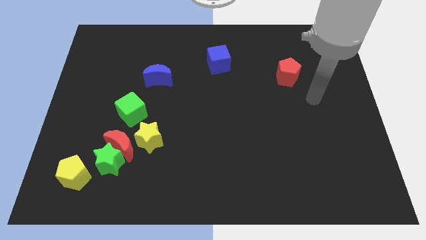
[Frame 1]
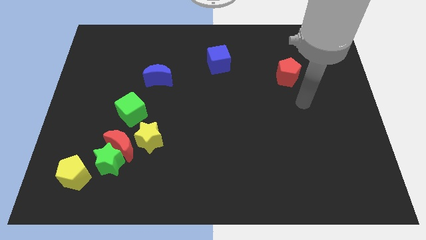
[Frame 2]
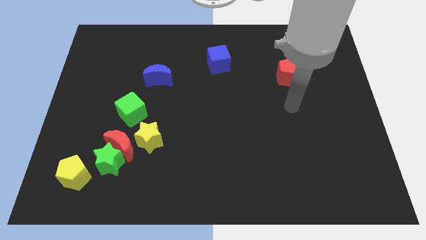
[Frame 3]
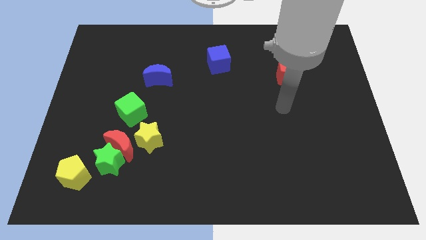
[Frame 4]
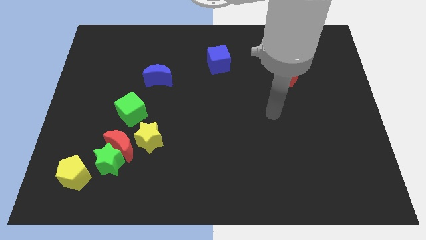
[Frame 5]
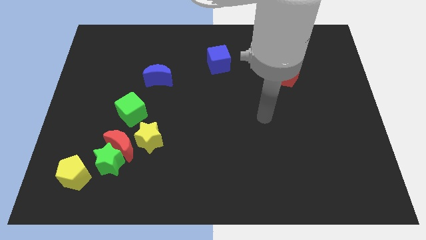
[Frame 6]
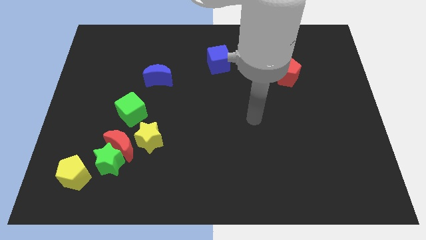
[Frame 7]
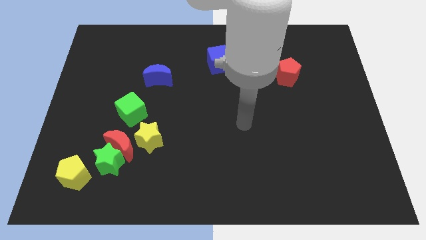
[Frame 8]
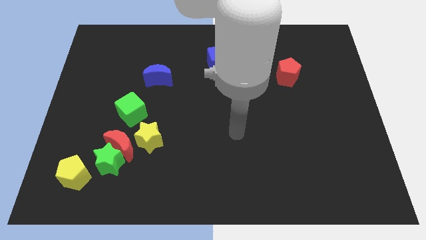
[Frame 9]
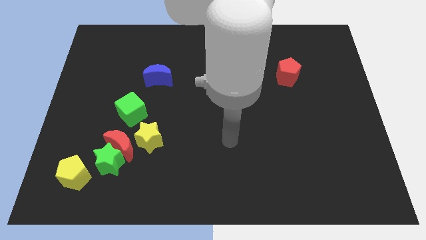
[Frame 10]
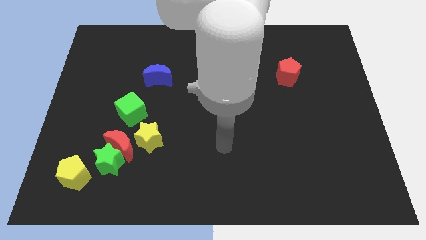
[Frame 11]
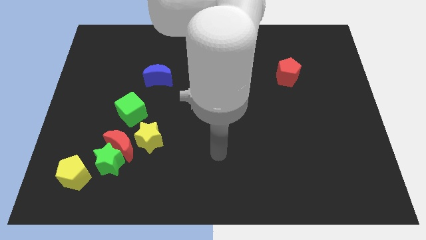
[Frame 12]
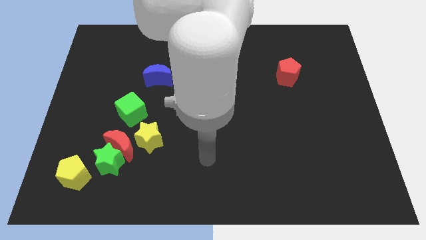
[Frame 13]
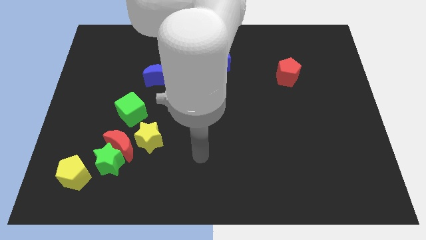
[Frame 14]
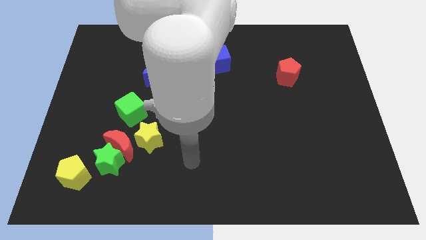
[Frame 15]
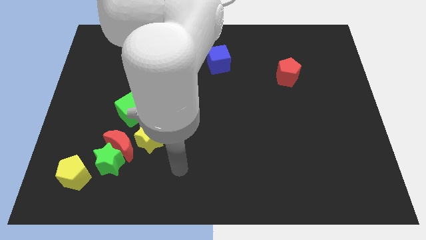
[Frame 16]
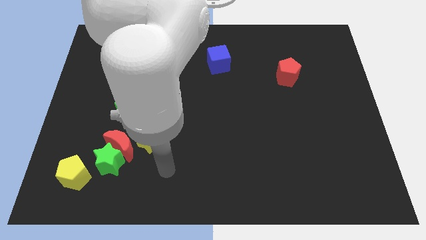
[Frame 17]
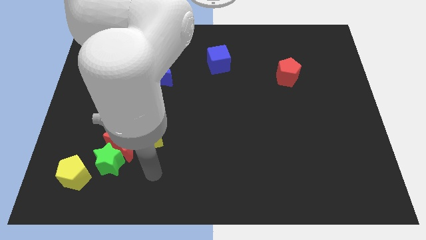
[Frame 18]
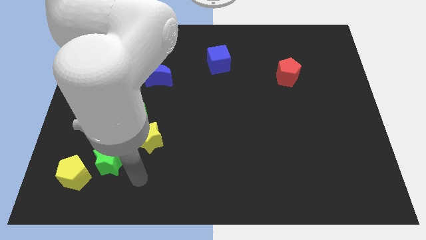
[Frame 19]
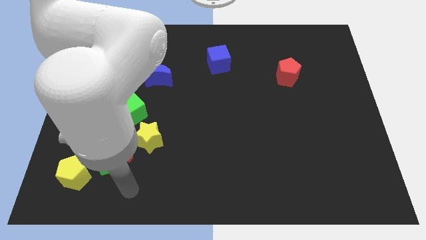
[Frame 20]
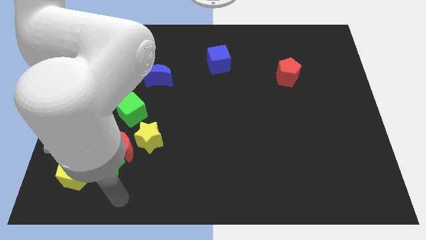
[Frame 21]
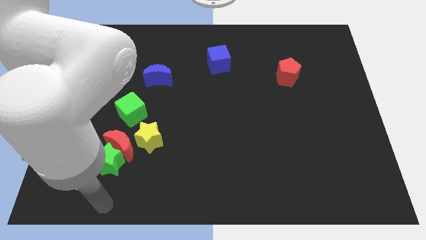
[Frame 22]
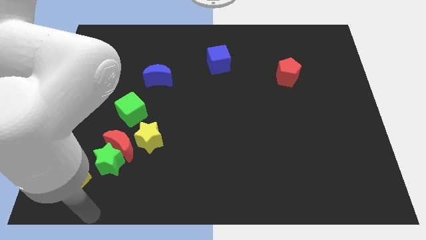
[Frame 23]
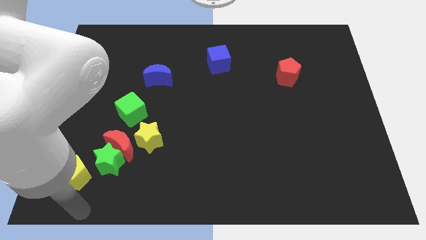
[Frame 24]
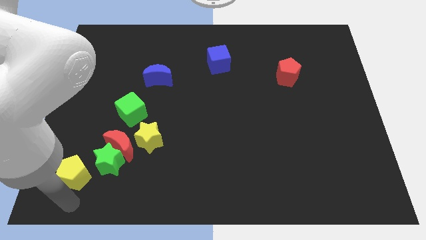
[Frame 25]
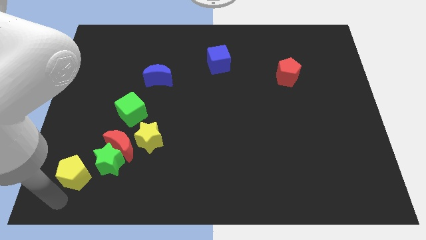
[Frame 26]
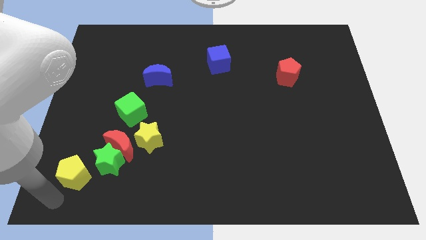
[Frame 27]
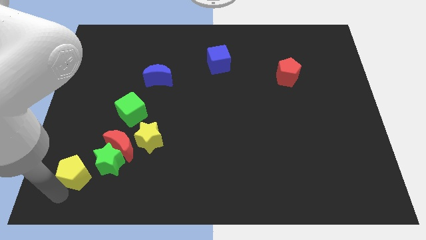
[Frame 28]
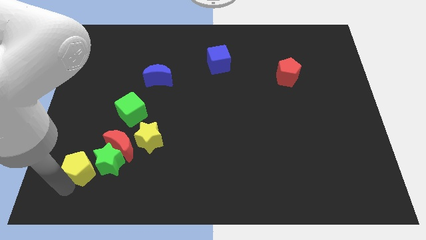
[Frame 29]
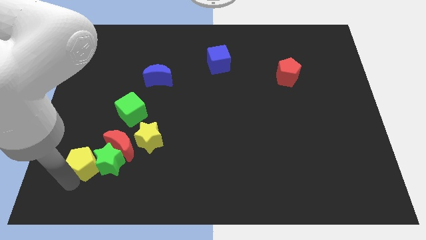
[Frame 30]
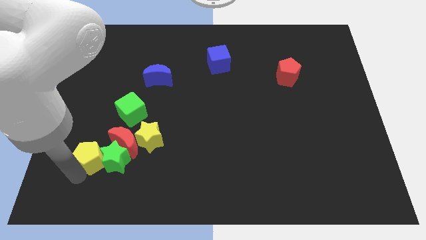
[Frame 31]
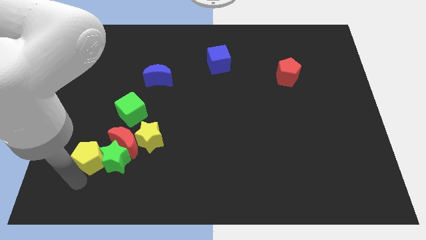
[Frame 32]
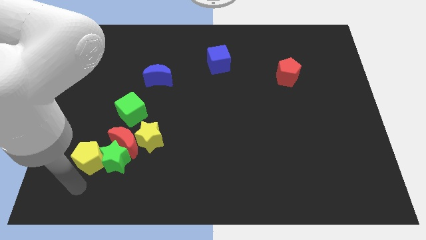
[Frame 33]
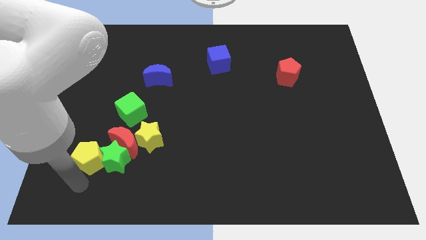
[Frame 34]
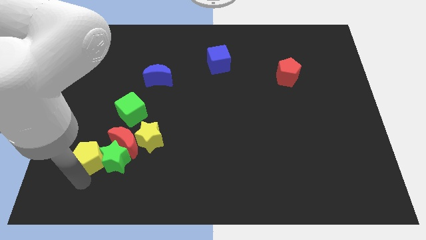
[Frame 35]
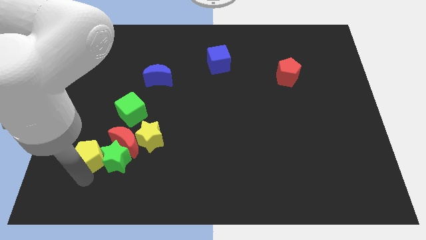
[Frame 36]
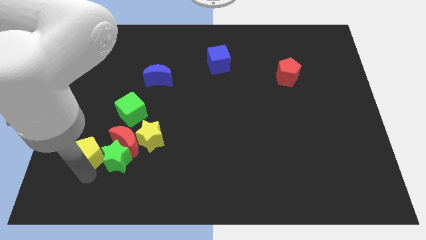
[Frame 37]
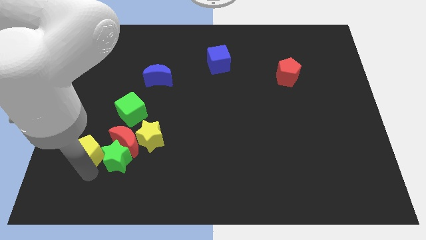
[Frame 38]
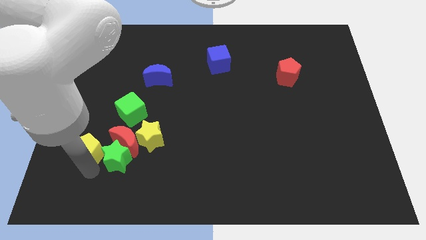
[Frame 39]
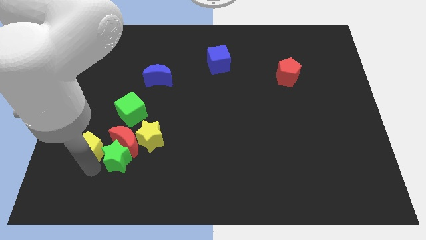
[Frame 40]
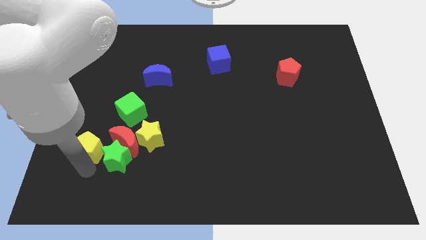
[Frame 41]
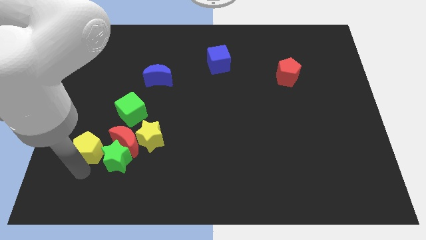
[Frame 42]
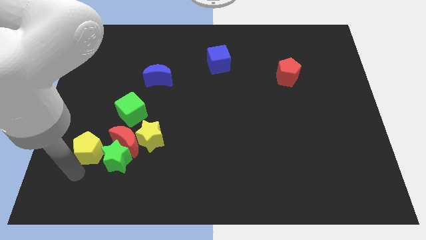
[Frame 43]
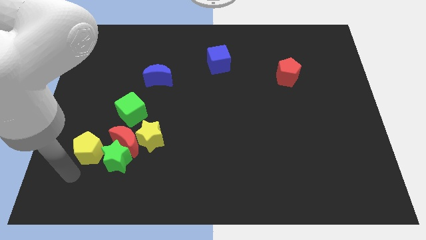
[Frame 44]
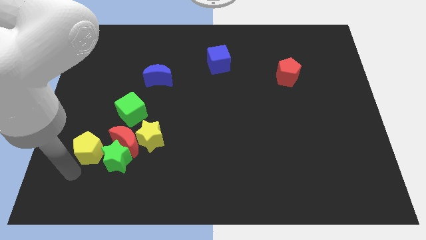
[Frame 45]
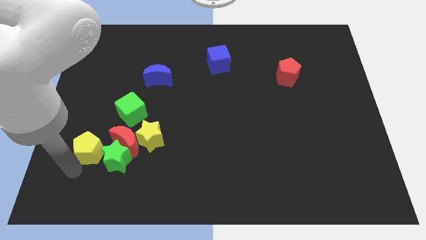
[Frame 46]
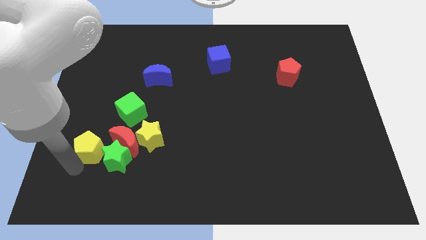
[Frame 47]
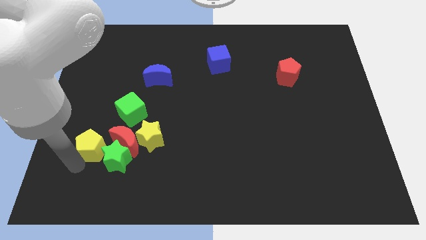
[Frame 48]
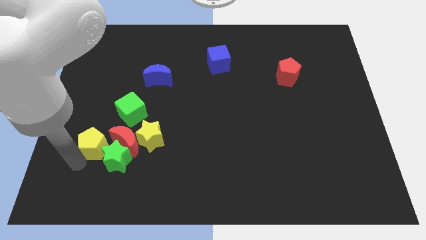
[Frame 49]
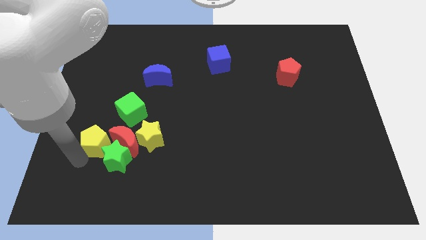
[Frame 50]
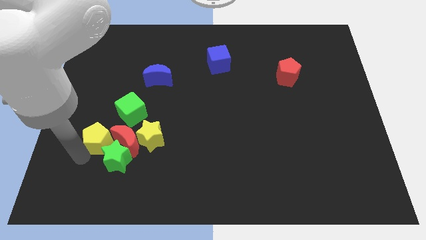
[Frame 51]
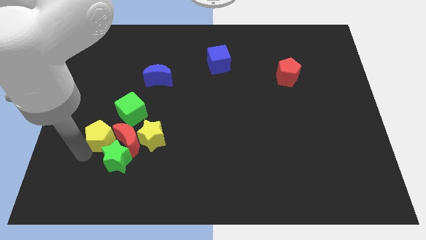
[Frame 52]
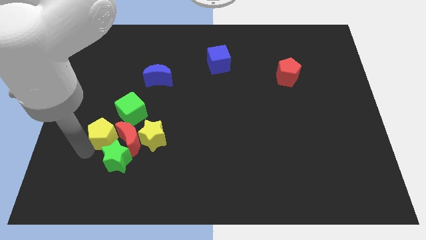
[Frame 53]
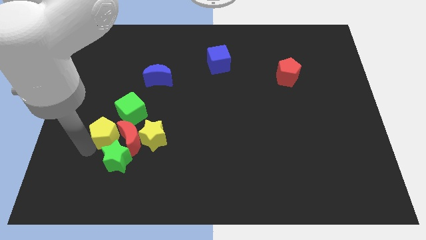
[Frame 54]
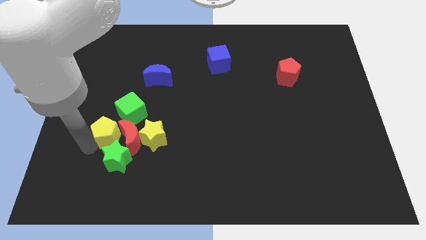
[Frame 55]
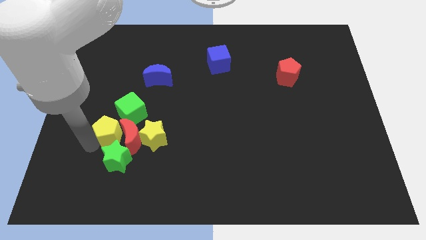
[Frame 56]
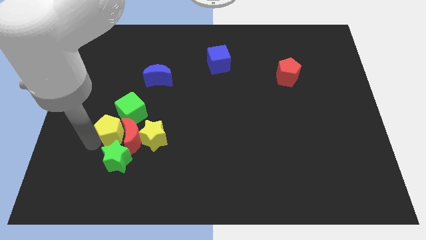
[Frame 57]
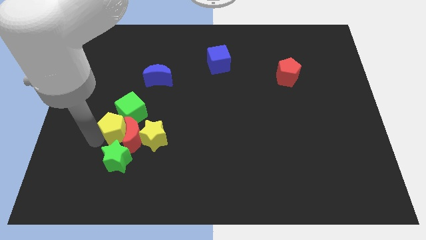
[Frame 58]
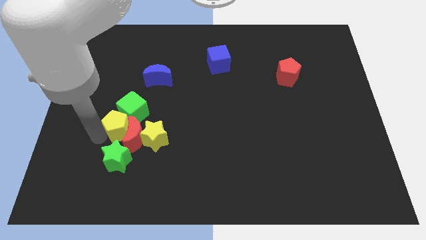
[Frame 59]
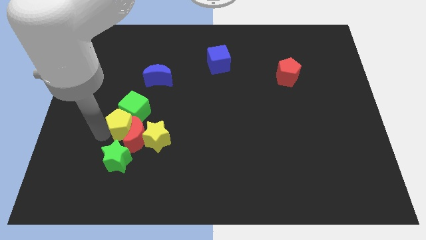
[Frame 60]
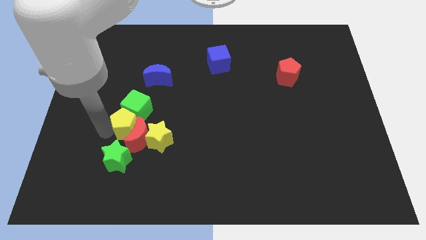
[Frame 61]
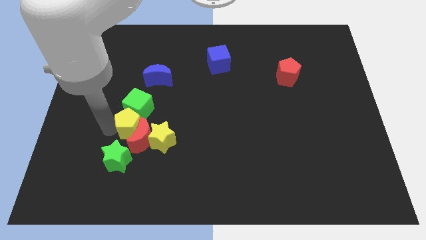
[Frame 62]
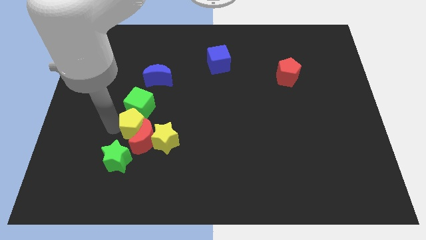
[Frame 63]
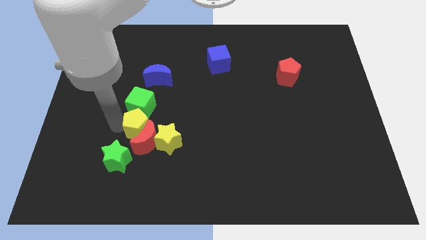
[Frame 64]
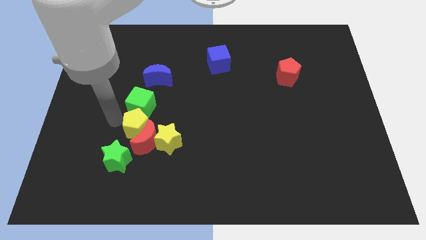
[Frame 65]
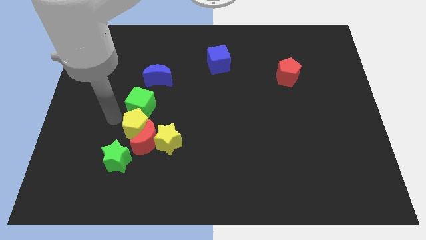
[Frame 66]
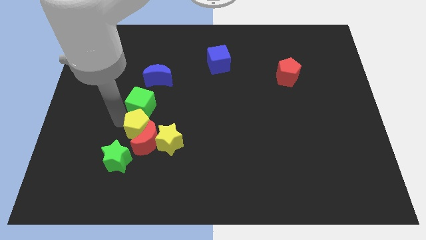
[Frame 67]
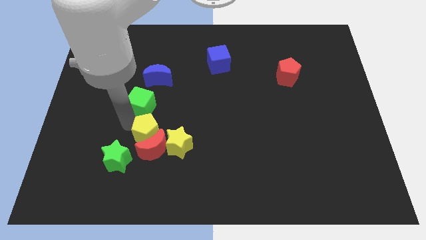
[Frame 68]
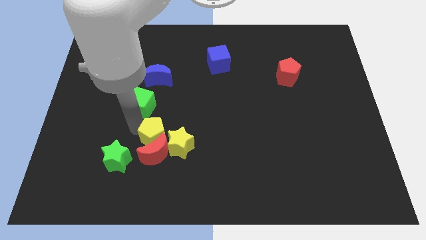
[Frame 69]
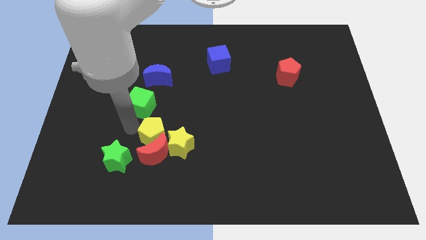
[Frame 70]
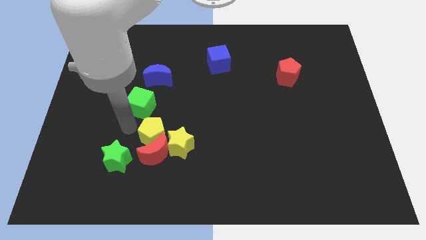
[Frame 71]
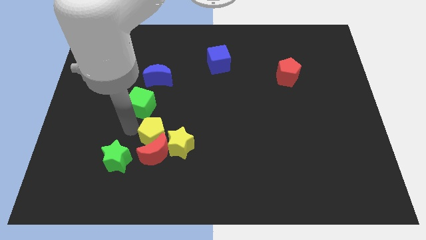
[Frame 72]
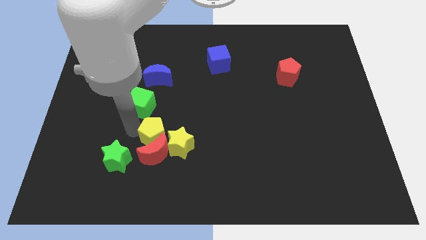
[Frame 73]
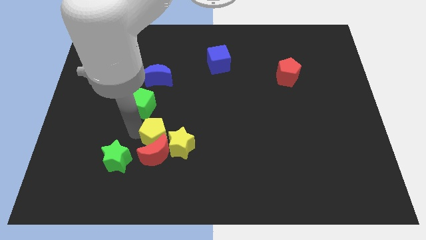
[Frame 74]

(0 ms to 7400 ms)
slide the yellow pentagon next to the yellow star
